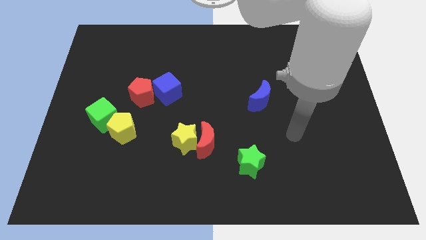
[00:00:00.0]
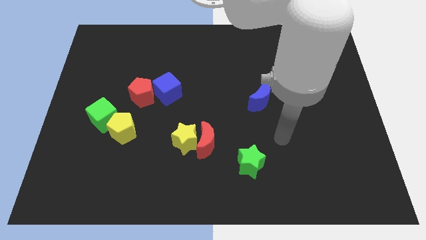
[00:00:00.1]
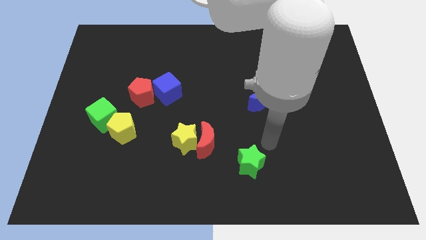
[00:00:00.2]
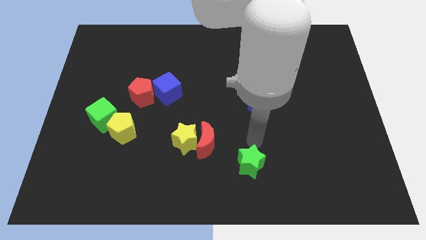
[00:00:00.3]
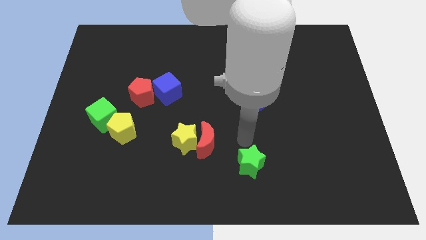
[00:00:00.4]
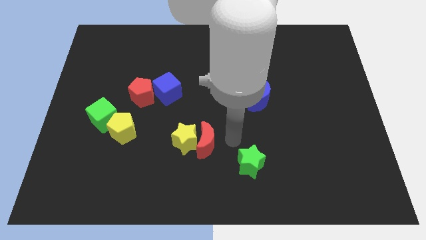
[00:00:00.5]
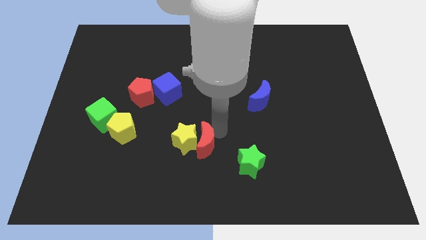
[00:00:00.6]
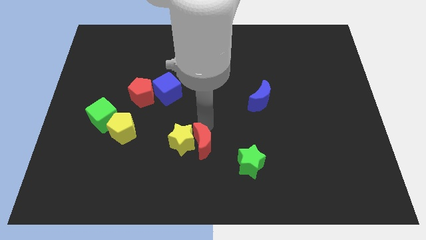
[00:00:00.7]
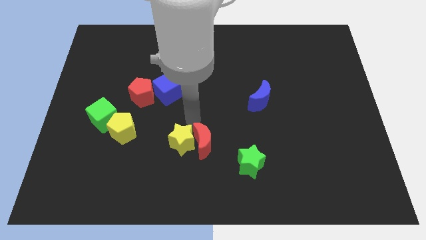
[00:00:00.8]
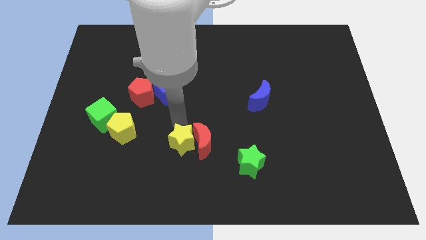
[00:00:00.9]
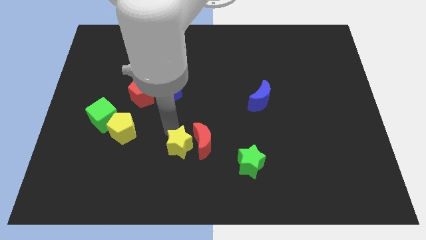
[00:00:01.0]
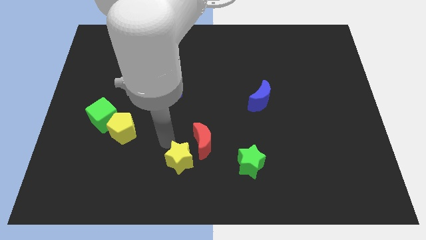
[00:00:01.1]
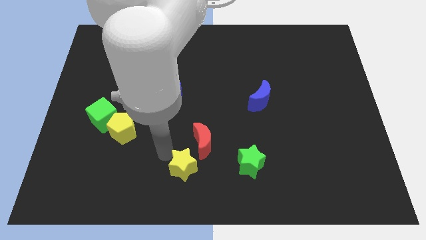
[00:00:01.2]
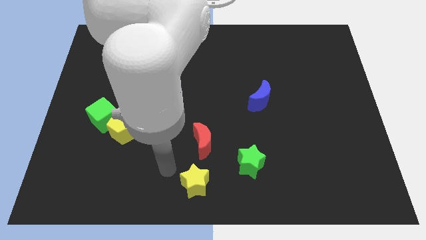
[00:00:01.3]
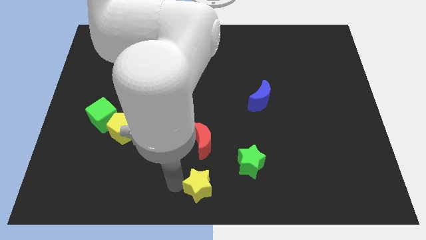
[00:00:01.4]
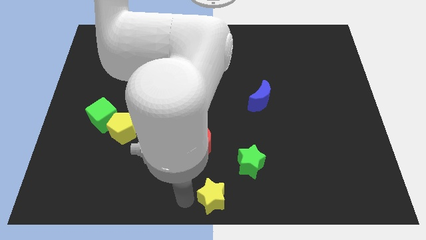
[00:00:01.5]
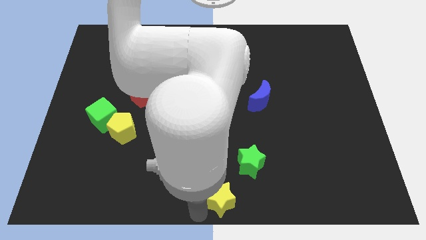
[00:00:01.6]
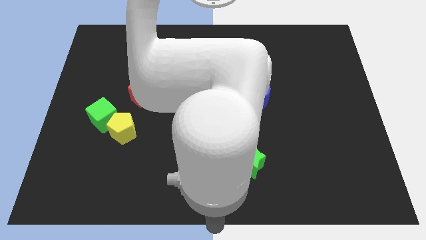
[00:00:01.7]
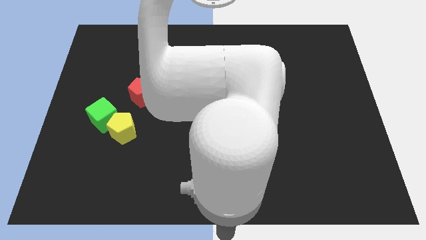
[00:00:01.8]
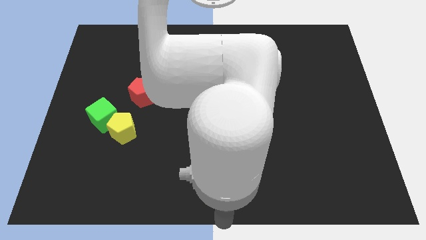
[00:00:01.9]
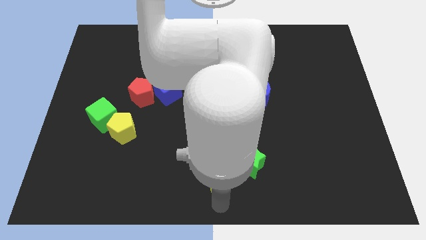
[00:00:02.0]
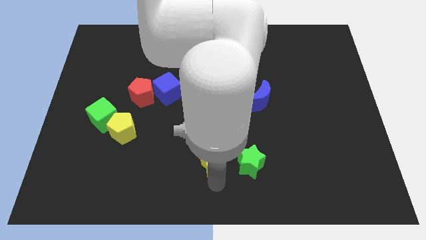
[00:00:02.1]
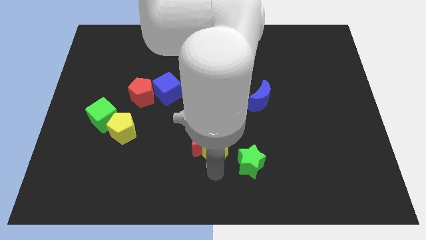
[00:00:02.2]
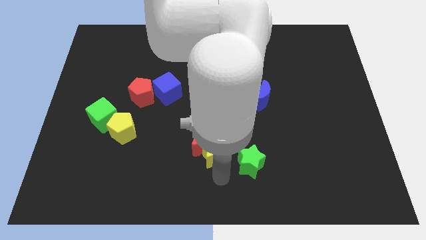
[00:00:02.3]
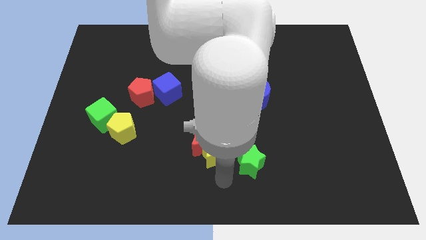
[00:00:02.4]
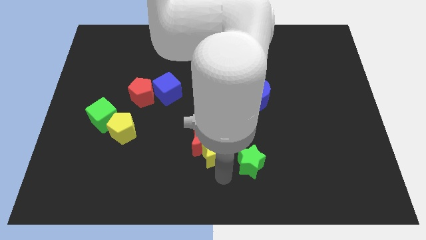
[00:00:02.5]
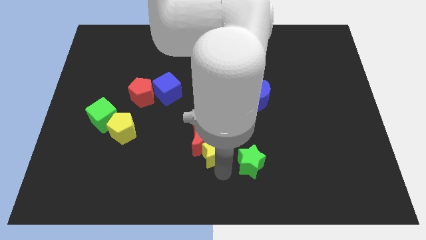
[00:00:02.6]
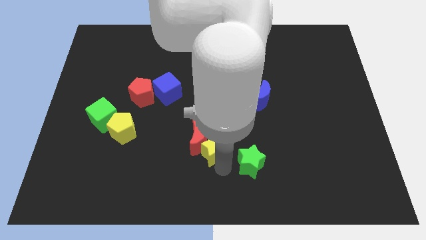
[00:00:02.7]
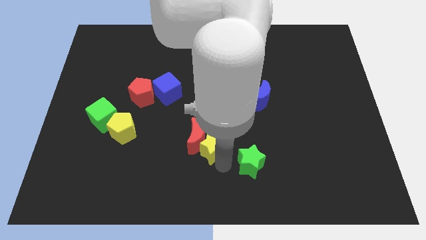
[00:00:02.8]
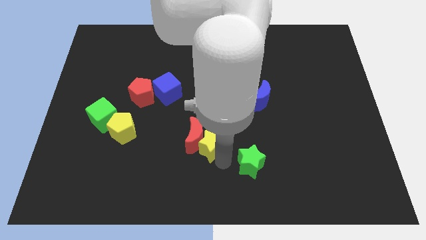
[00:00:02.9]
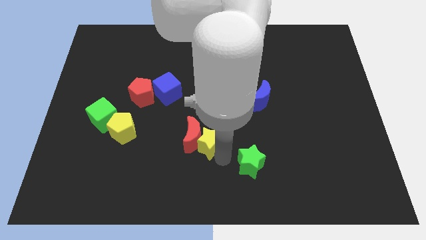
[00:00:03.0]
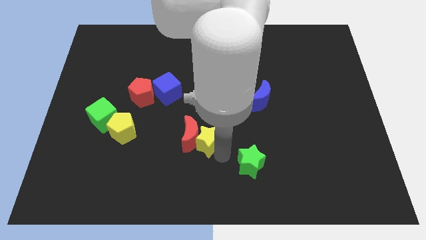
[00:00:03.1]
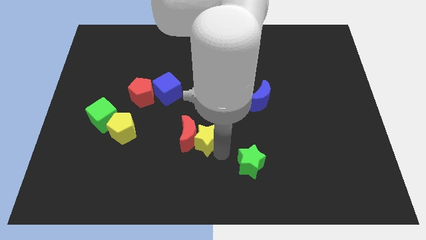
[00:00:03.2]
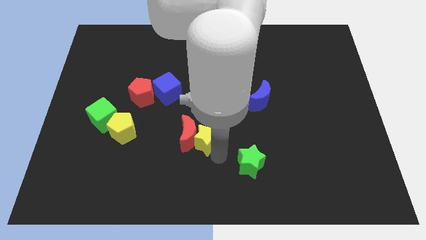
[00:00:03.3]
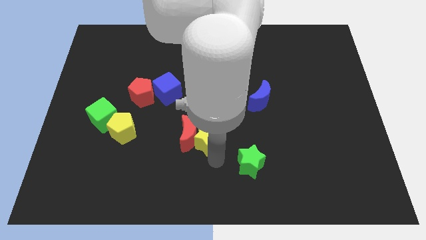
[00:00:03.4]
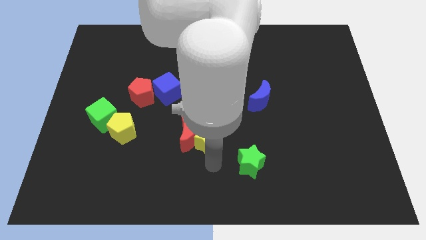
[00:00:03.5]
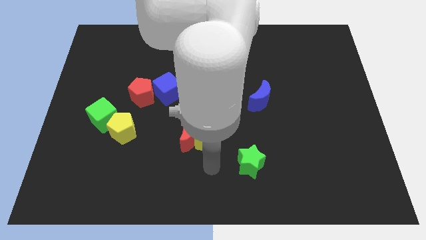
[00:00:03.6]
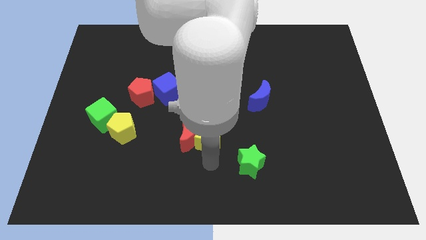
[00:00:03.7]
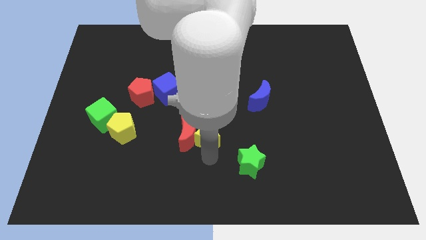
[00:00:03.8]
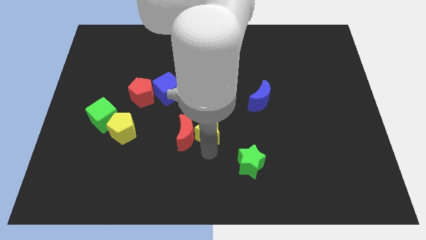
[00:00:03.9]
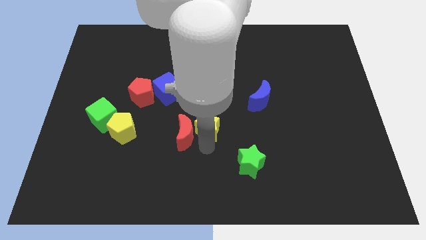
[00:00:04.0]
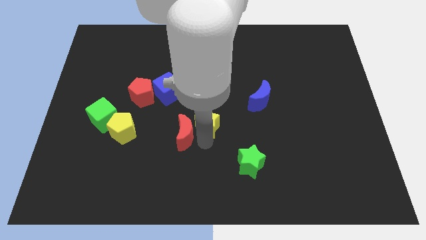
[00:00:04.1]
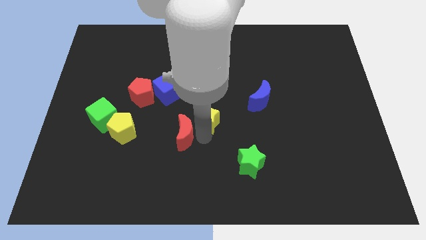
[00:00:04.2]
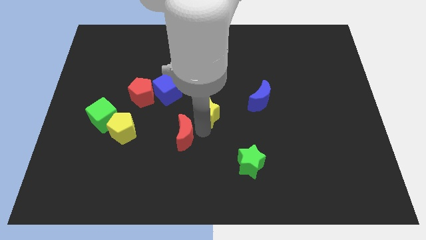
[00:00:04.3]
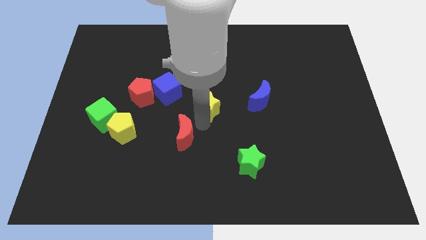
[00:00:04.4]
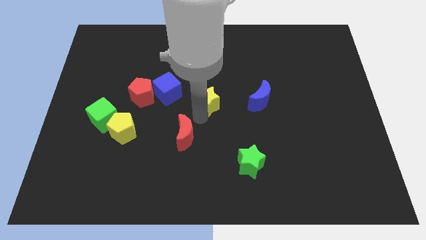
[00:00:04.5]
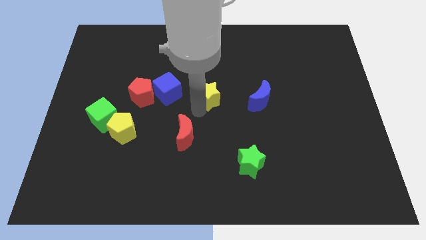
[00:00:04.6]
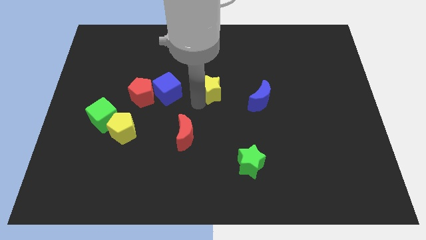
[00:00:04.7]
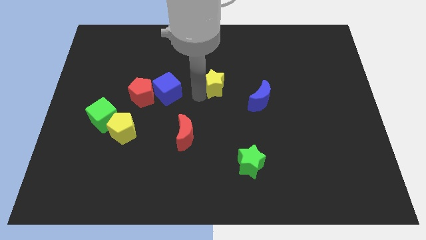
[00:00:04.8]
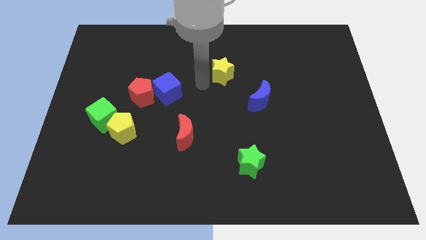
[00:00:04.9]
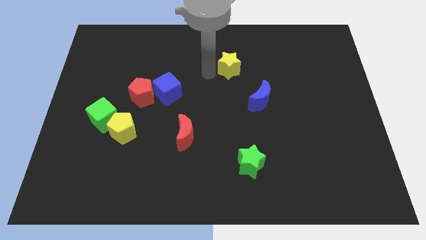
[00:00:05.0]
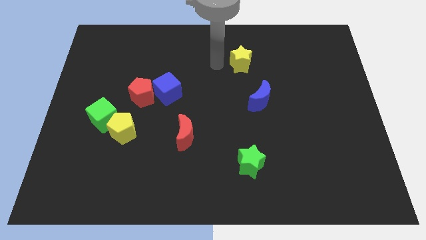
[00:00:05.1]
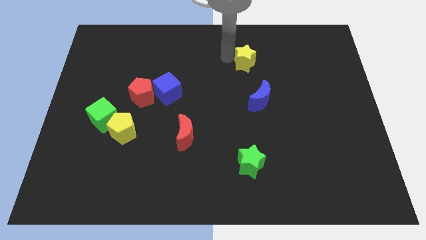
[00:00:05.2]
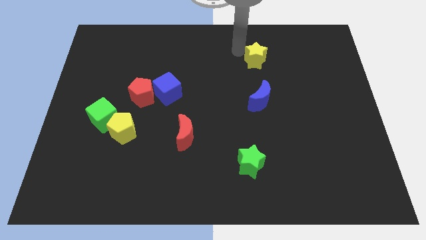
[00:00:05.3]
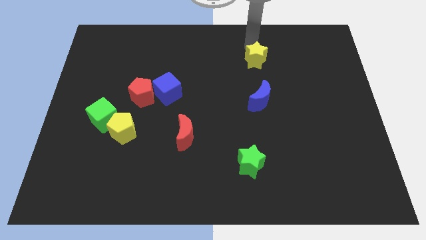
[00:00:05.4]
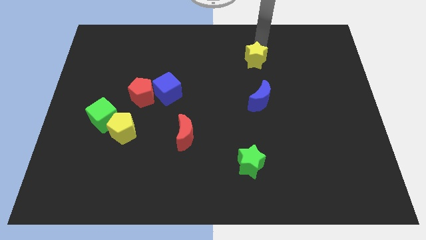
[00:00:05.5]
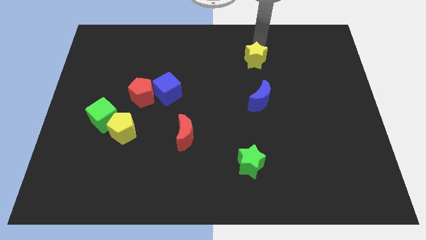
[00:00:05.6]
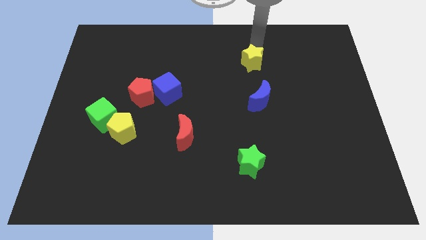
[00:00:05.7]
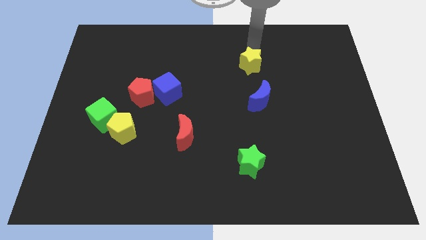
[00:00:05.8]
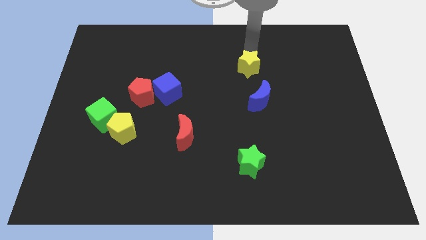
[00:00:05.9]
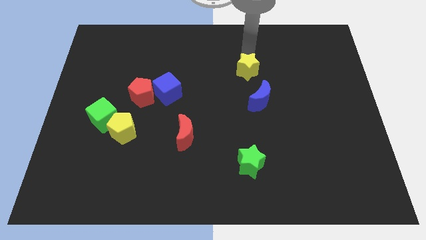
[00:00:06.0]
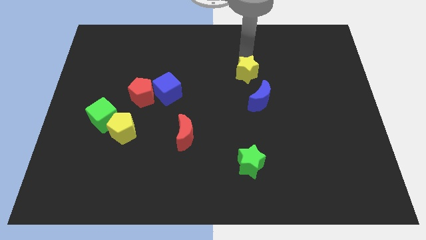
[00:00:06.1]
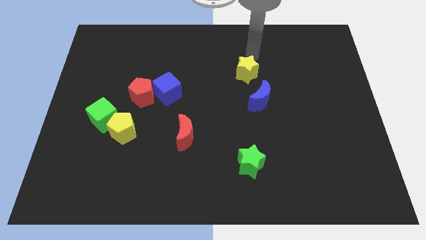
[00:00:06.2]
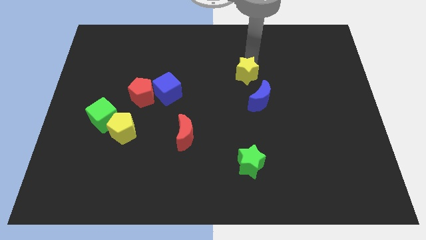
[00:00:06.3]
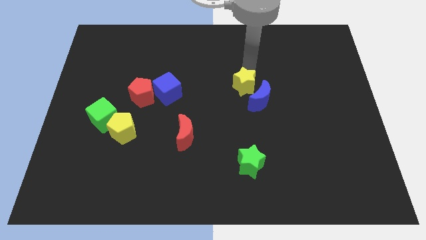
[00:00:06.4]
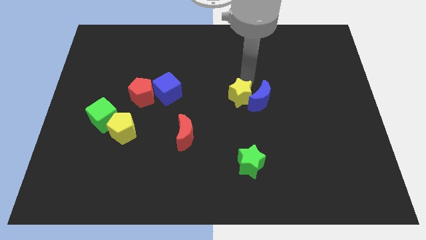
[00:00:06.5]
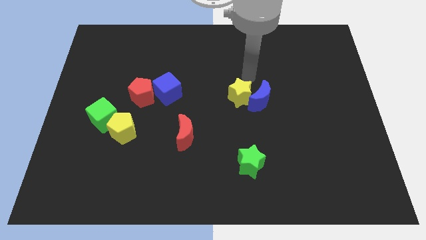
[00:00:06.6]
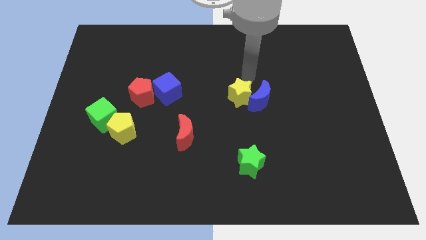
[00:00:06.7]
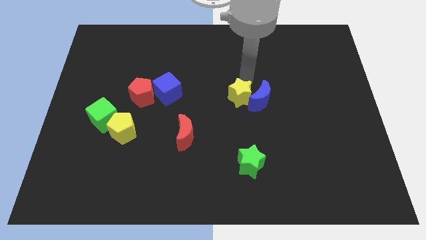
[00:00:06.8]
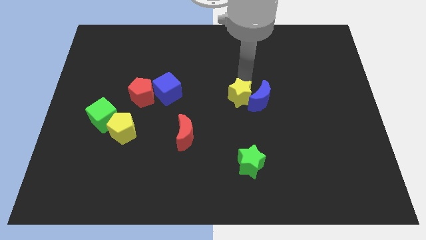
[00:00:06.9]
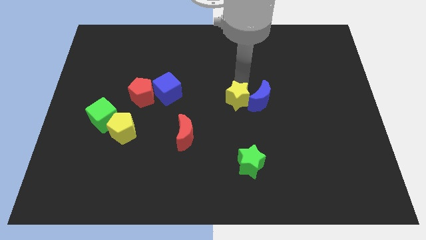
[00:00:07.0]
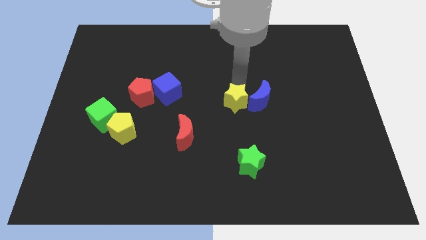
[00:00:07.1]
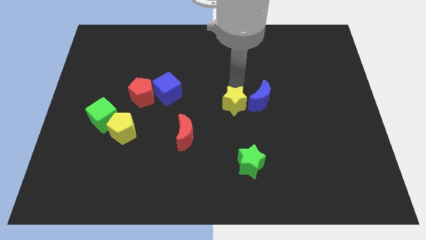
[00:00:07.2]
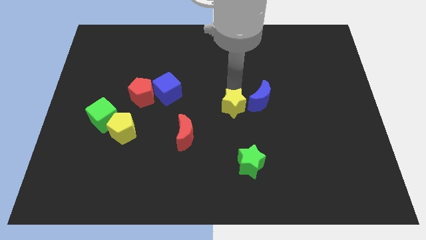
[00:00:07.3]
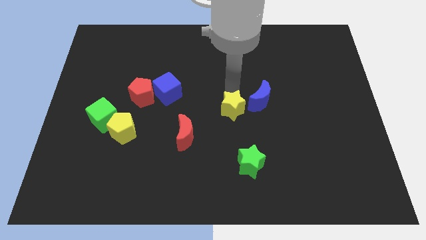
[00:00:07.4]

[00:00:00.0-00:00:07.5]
slightly push the yellow star right

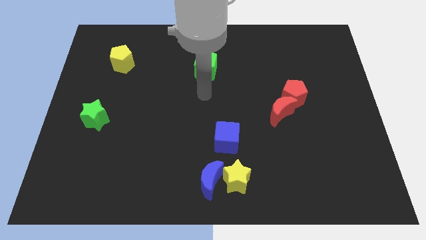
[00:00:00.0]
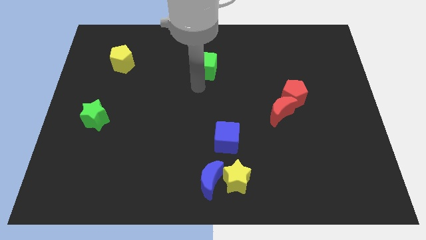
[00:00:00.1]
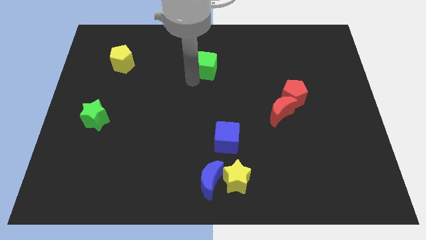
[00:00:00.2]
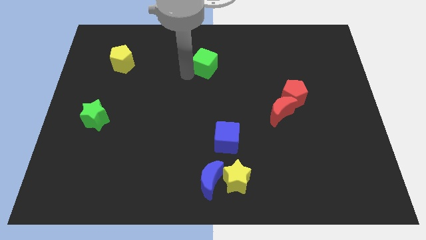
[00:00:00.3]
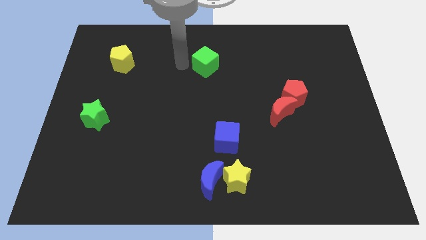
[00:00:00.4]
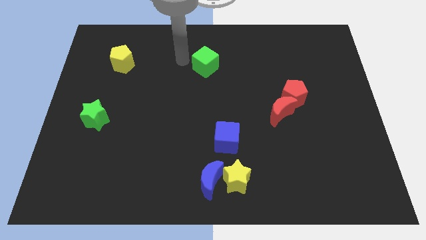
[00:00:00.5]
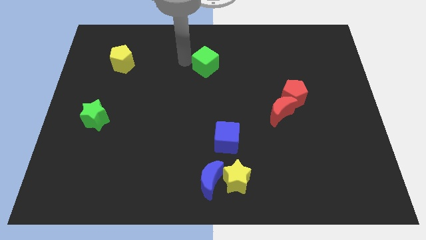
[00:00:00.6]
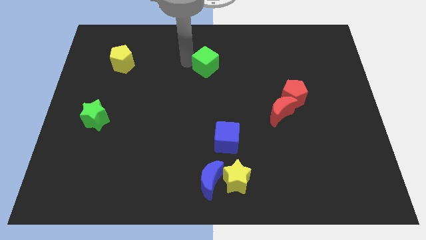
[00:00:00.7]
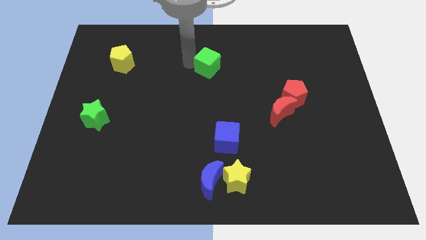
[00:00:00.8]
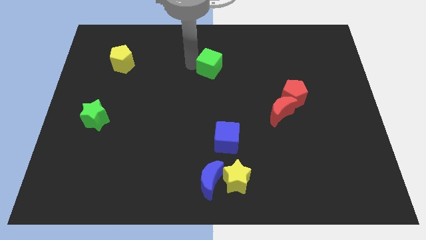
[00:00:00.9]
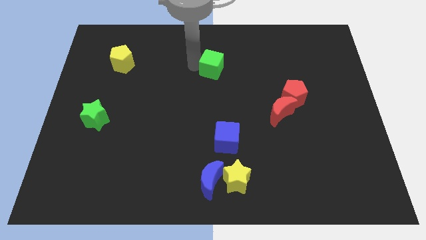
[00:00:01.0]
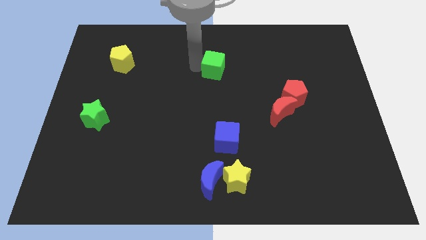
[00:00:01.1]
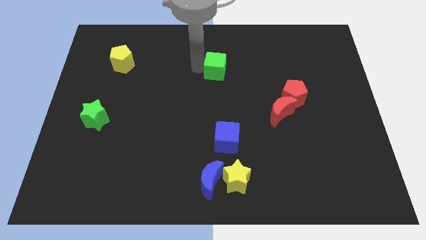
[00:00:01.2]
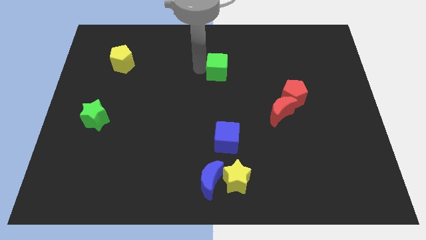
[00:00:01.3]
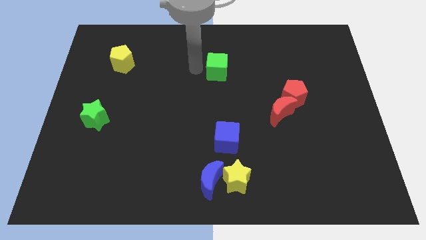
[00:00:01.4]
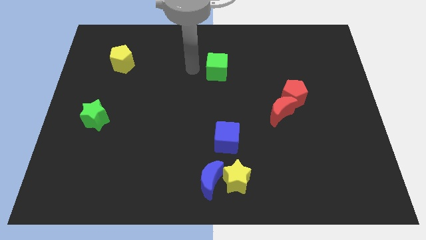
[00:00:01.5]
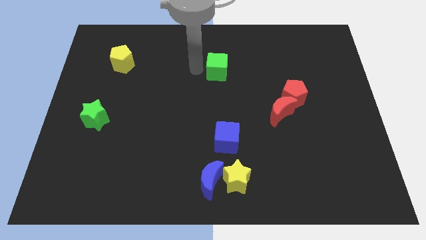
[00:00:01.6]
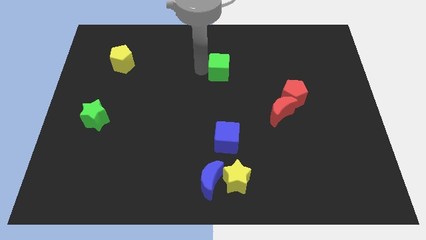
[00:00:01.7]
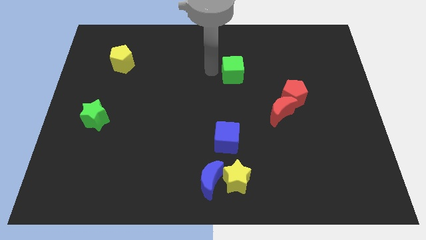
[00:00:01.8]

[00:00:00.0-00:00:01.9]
slide the green cube right a bit
